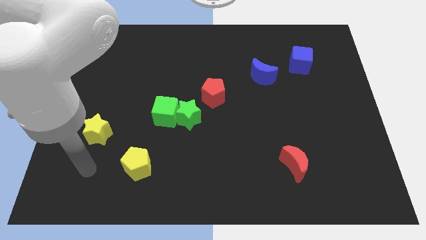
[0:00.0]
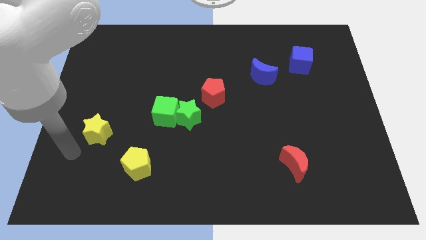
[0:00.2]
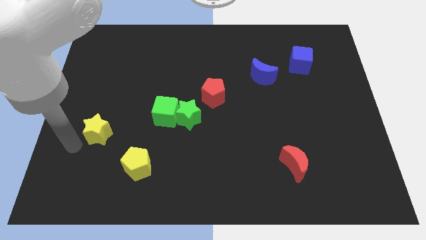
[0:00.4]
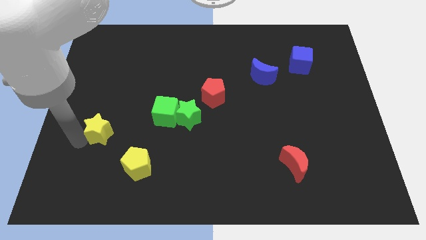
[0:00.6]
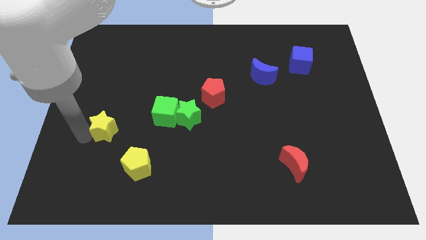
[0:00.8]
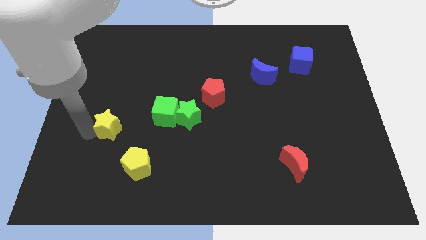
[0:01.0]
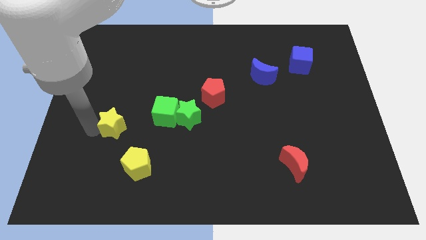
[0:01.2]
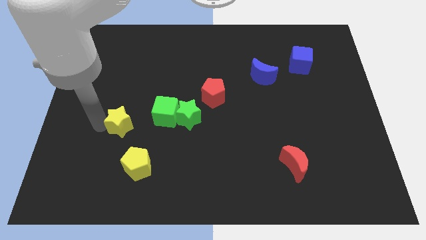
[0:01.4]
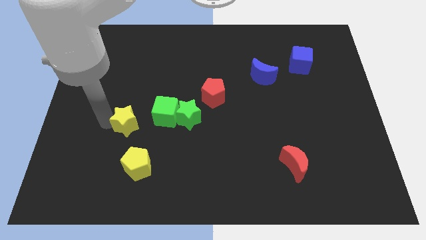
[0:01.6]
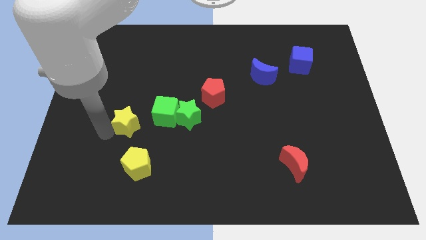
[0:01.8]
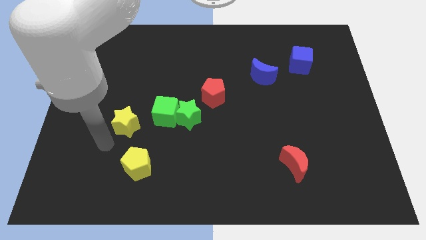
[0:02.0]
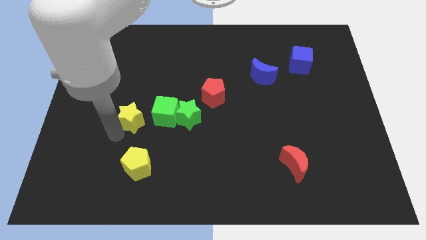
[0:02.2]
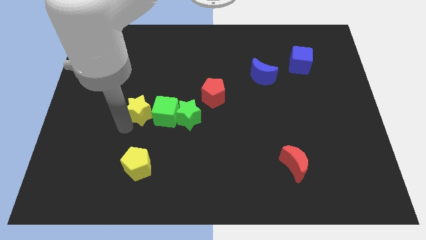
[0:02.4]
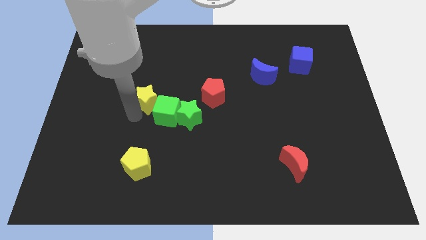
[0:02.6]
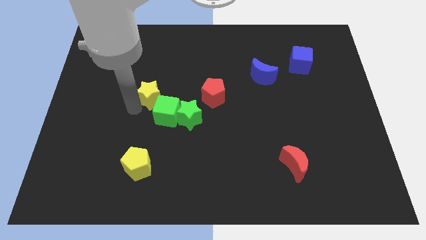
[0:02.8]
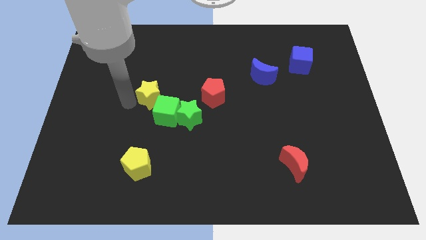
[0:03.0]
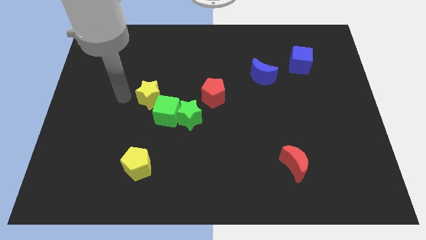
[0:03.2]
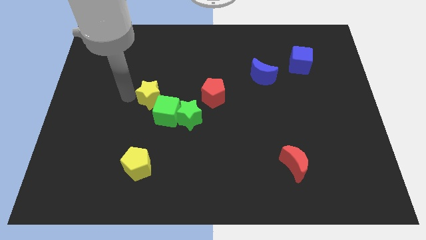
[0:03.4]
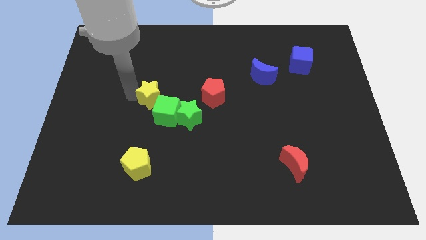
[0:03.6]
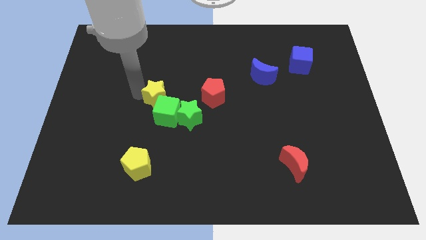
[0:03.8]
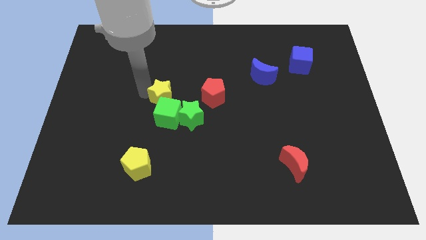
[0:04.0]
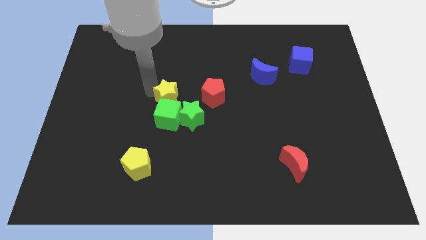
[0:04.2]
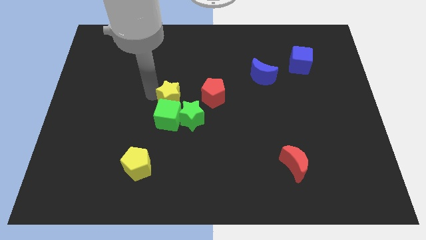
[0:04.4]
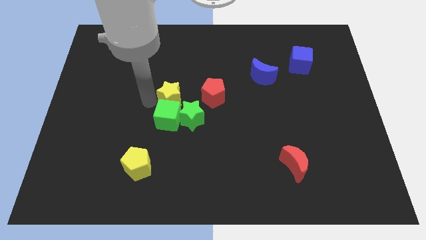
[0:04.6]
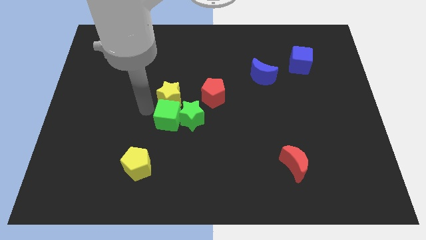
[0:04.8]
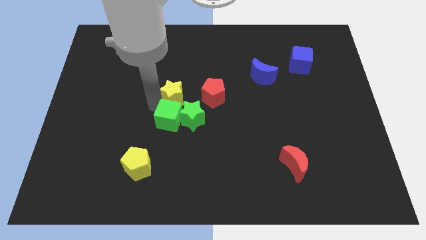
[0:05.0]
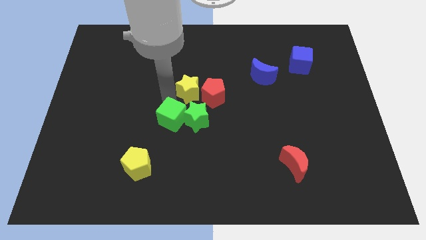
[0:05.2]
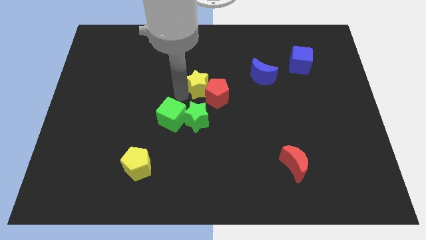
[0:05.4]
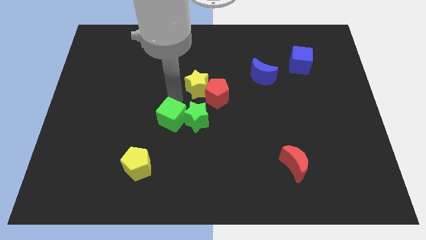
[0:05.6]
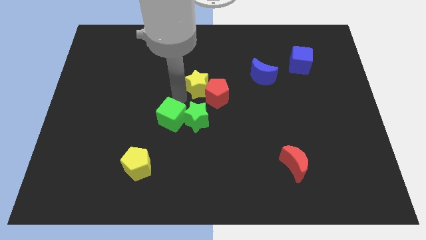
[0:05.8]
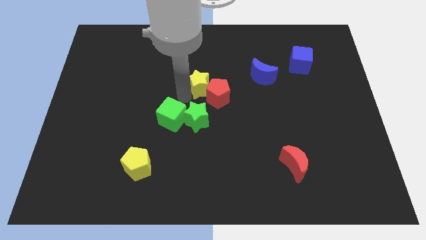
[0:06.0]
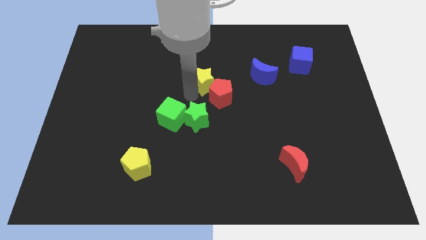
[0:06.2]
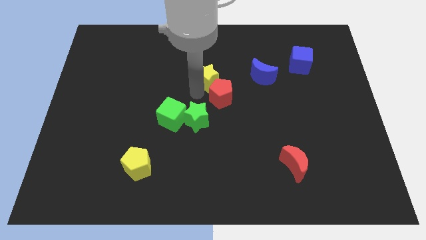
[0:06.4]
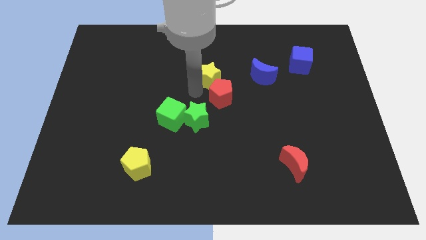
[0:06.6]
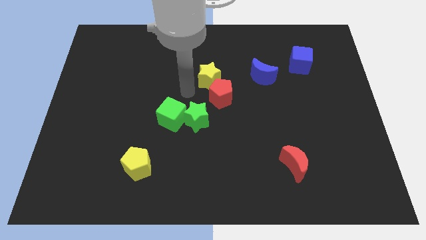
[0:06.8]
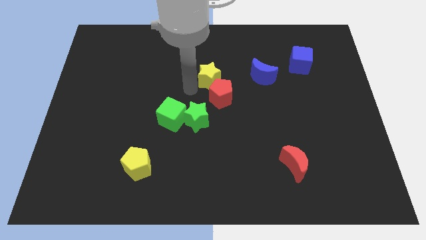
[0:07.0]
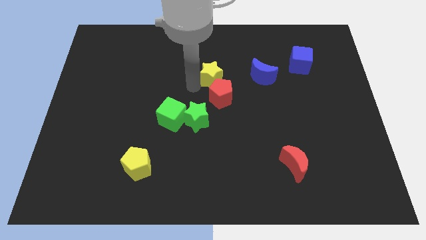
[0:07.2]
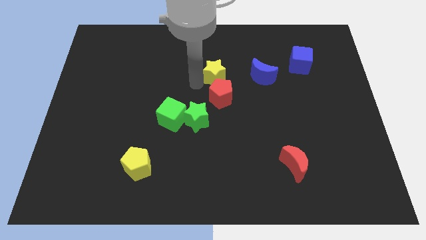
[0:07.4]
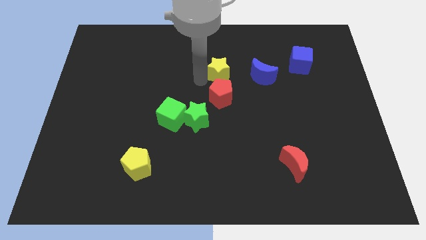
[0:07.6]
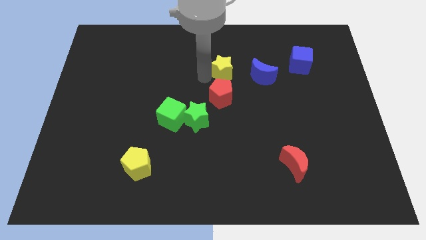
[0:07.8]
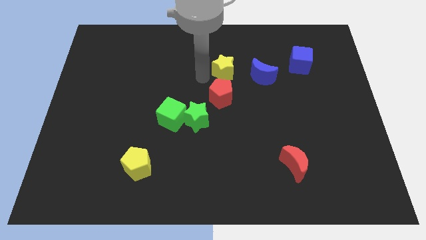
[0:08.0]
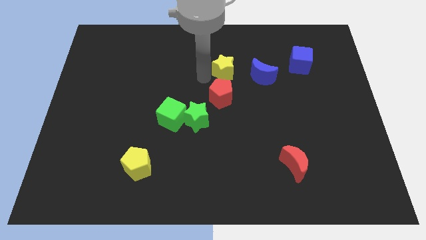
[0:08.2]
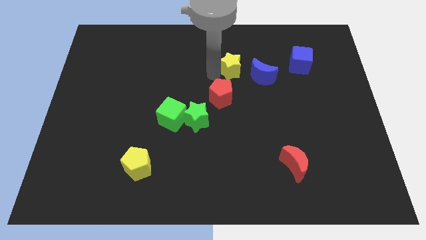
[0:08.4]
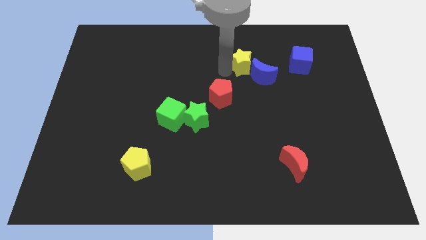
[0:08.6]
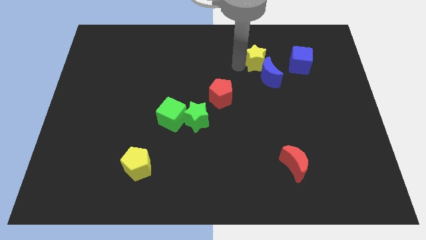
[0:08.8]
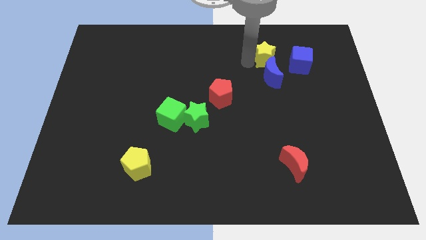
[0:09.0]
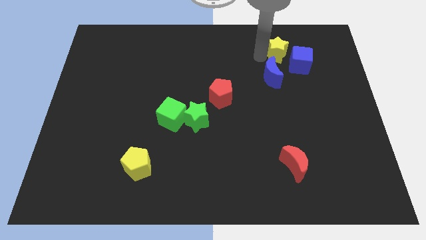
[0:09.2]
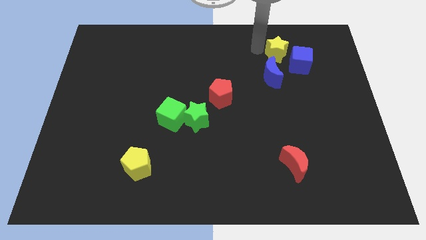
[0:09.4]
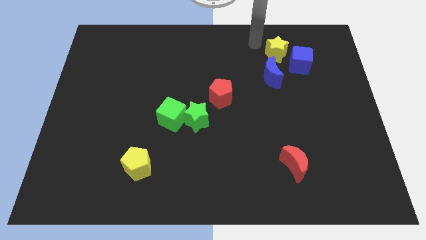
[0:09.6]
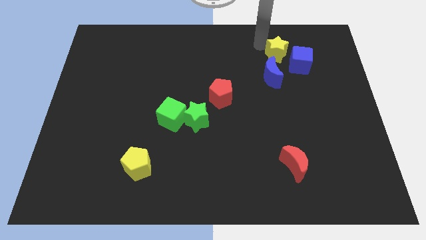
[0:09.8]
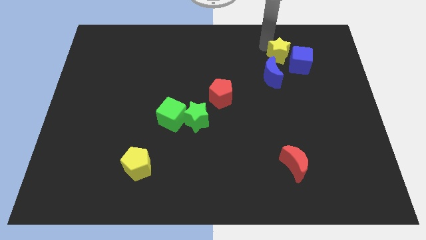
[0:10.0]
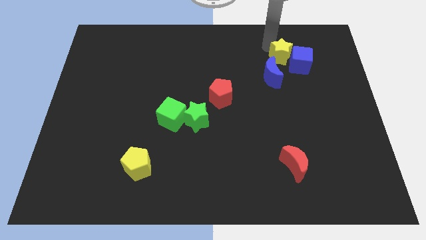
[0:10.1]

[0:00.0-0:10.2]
push the yellow star next to the blue cube

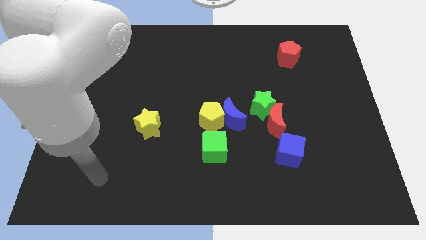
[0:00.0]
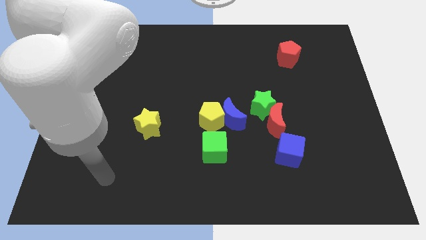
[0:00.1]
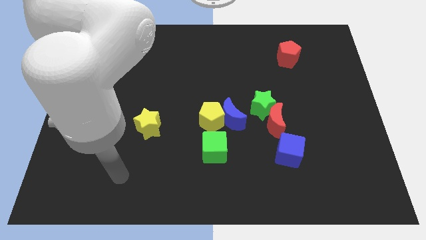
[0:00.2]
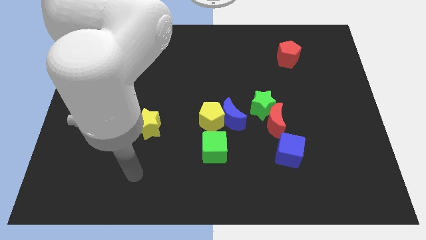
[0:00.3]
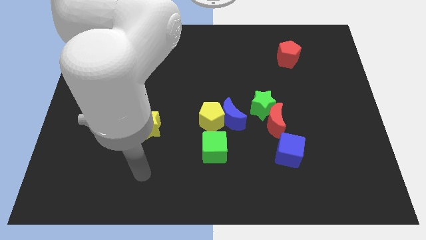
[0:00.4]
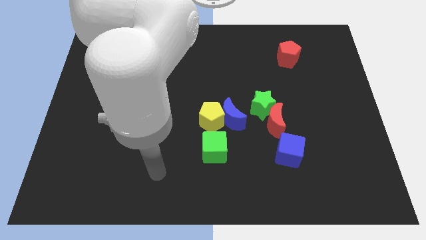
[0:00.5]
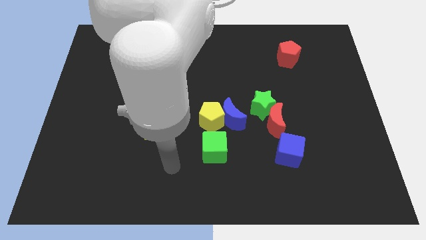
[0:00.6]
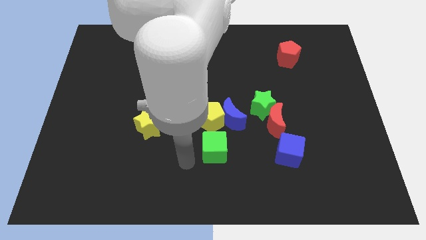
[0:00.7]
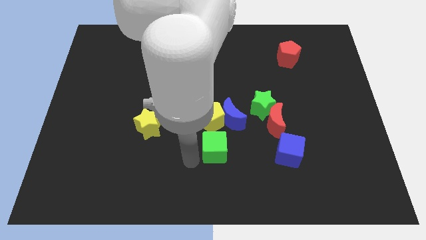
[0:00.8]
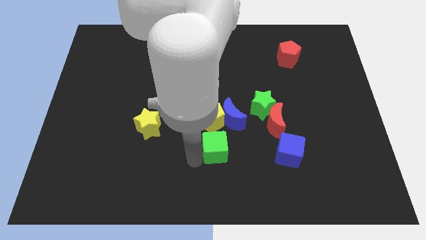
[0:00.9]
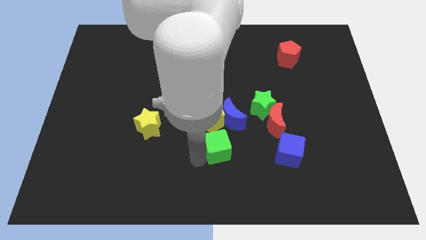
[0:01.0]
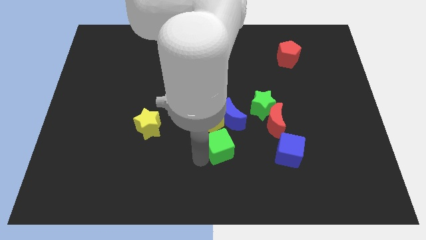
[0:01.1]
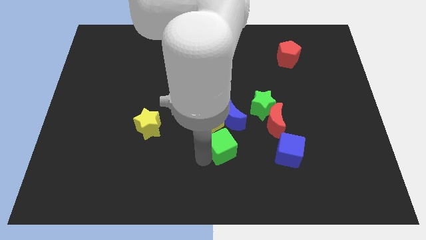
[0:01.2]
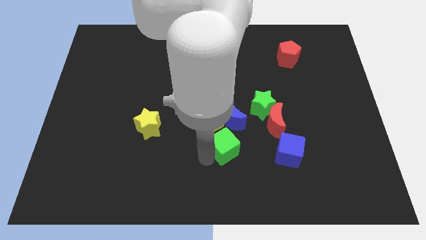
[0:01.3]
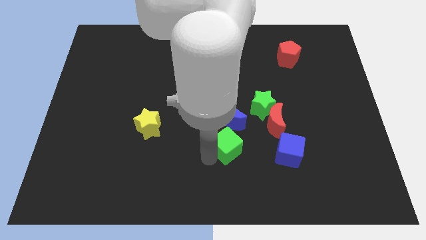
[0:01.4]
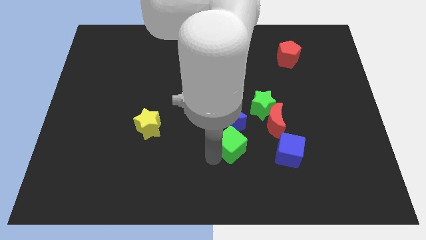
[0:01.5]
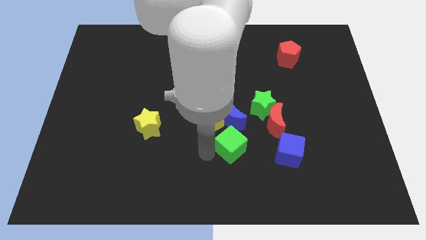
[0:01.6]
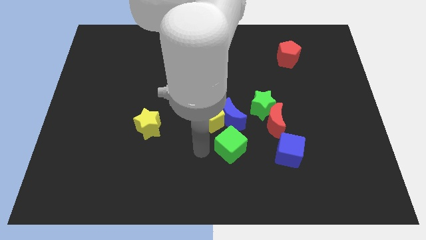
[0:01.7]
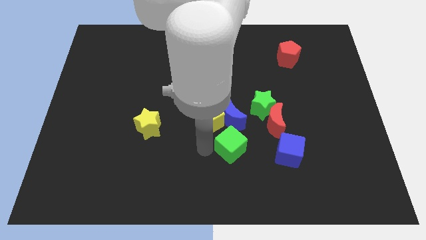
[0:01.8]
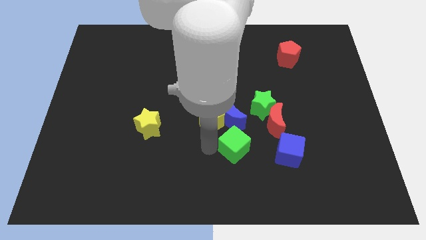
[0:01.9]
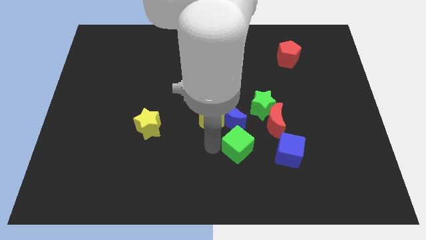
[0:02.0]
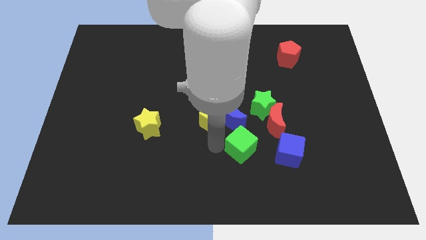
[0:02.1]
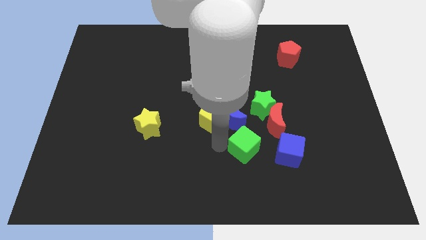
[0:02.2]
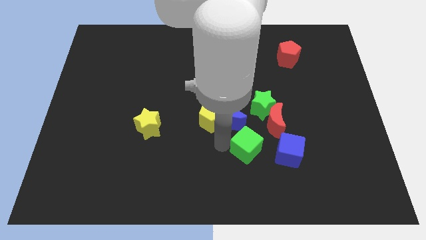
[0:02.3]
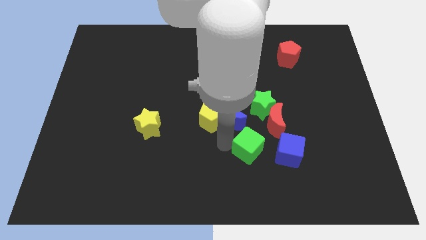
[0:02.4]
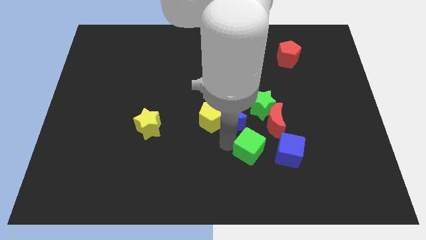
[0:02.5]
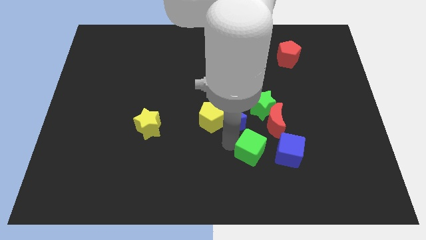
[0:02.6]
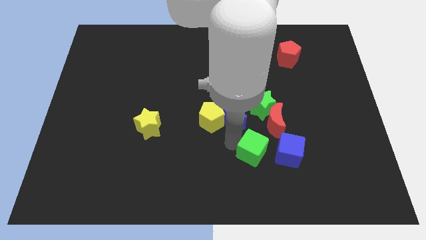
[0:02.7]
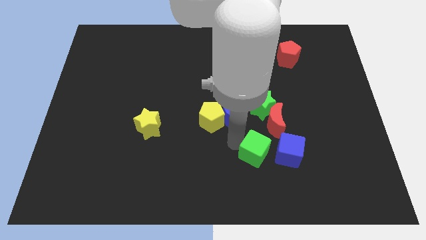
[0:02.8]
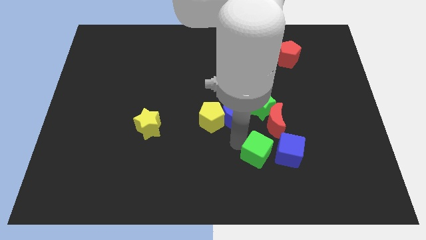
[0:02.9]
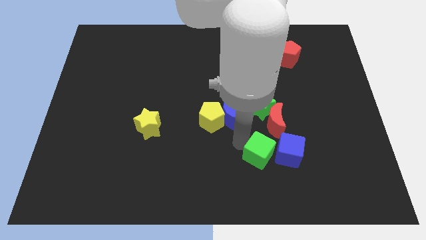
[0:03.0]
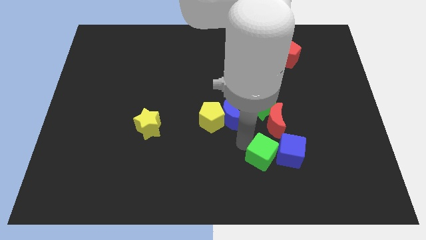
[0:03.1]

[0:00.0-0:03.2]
move the green cube towards the blue cube
